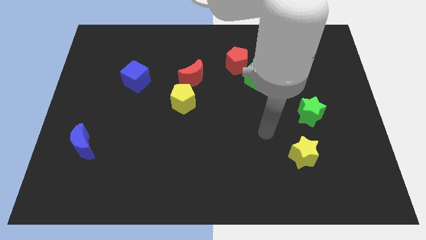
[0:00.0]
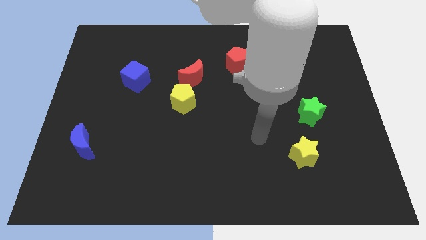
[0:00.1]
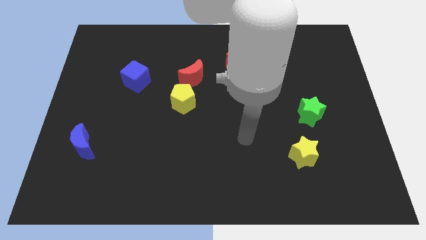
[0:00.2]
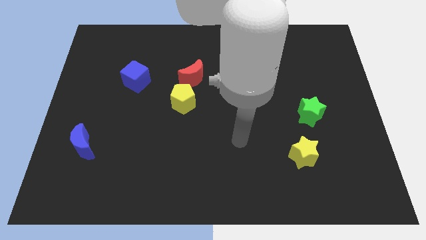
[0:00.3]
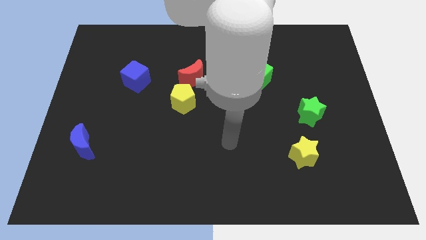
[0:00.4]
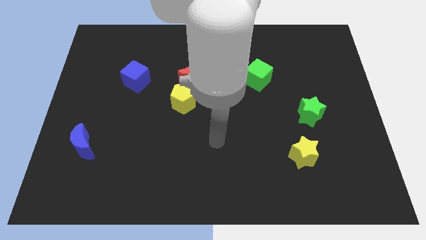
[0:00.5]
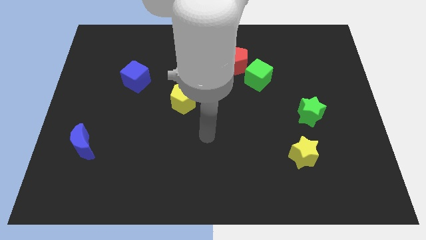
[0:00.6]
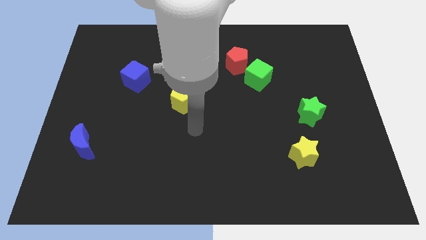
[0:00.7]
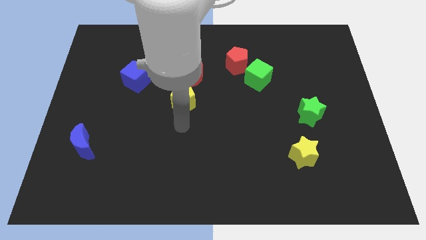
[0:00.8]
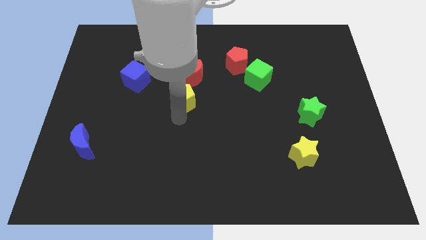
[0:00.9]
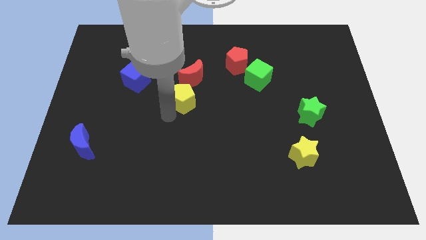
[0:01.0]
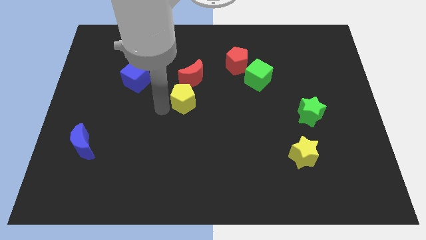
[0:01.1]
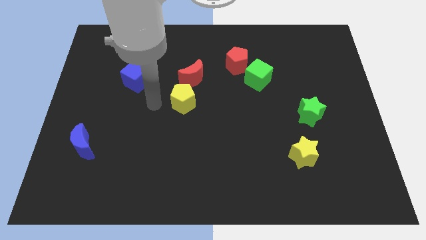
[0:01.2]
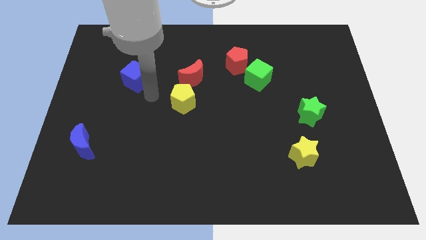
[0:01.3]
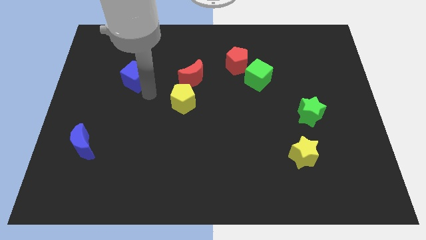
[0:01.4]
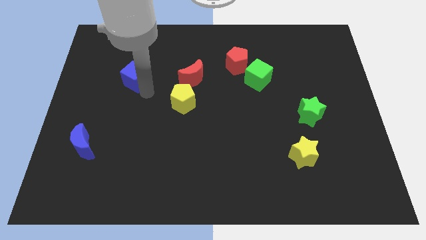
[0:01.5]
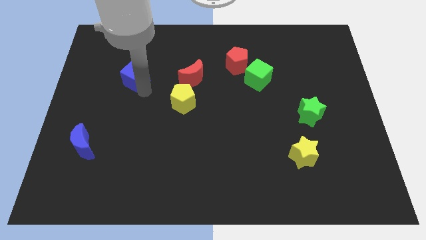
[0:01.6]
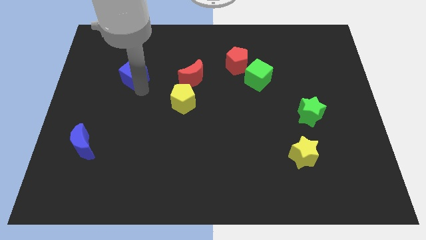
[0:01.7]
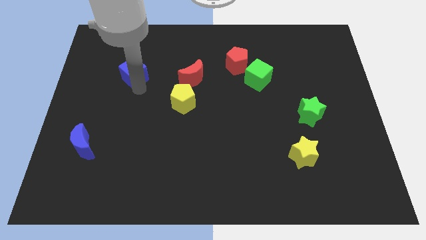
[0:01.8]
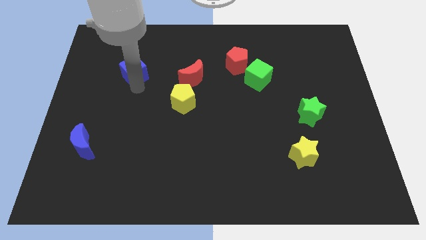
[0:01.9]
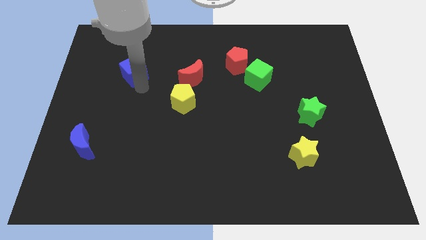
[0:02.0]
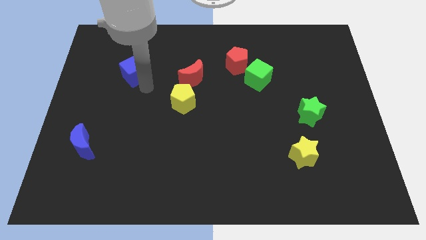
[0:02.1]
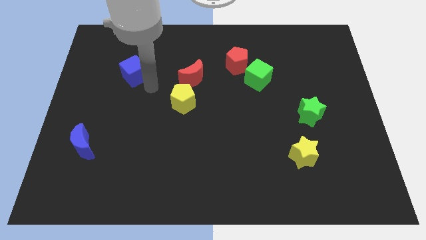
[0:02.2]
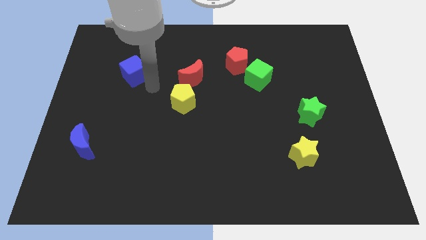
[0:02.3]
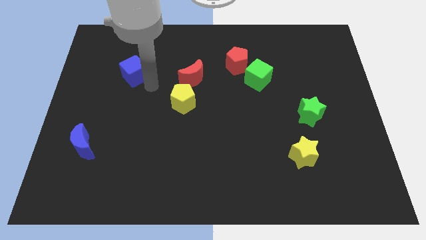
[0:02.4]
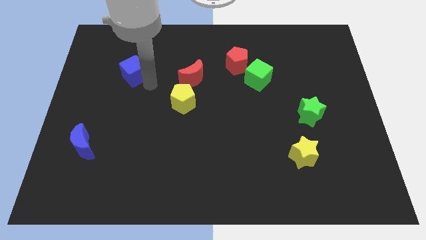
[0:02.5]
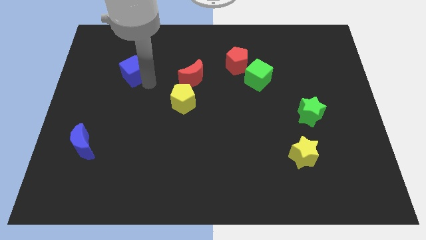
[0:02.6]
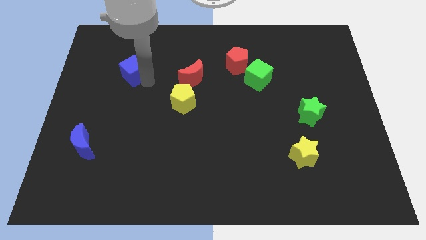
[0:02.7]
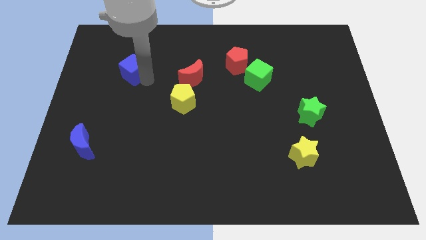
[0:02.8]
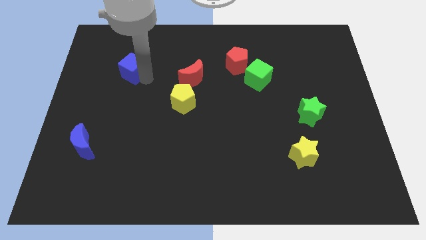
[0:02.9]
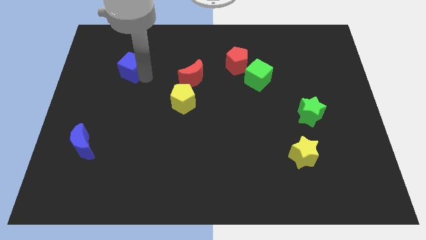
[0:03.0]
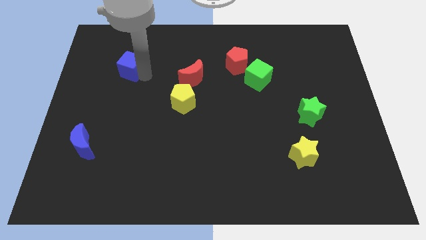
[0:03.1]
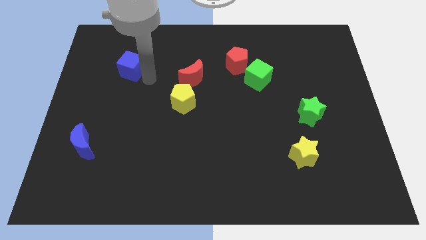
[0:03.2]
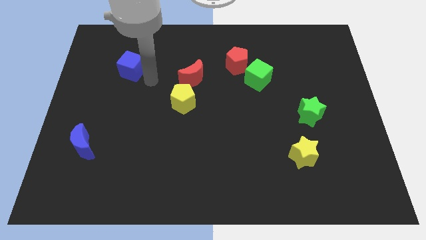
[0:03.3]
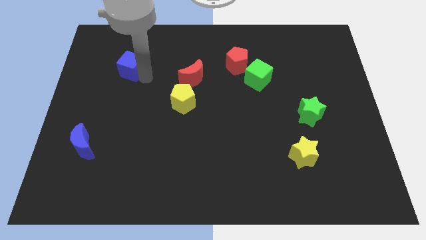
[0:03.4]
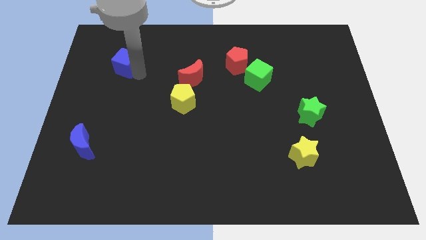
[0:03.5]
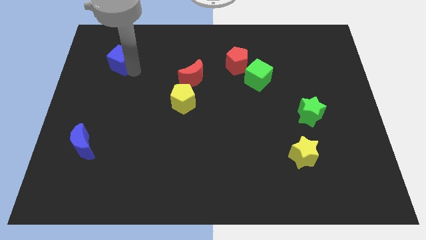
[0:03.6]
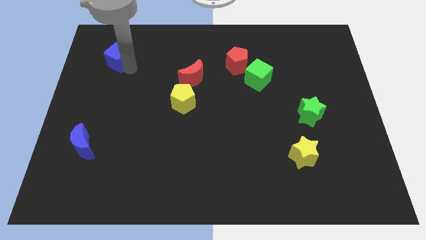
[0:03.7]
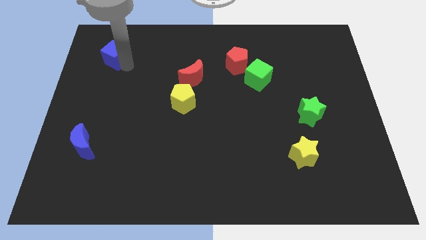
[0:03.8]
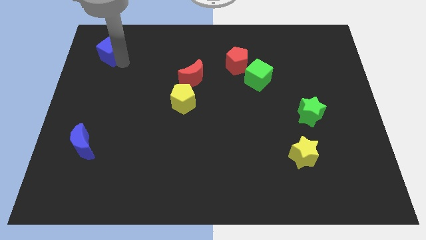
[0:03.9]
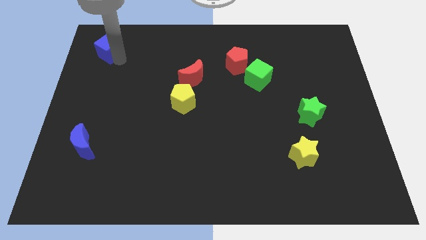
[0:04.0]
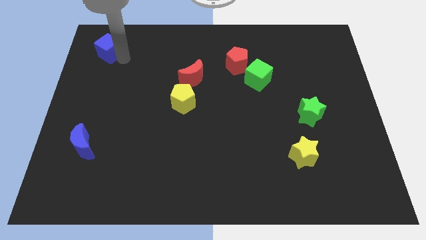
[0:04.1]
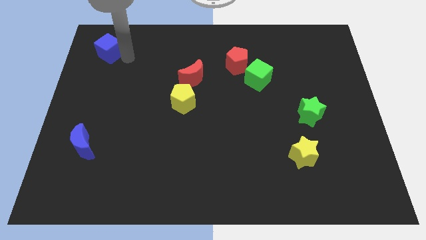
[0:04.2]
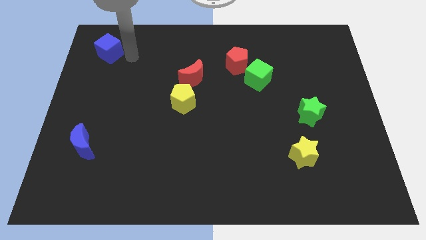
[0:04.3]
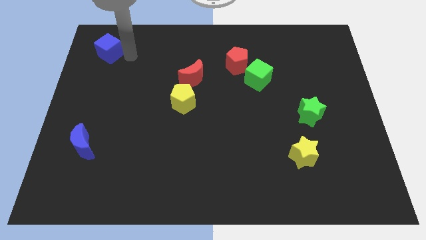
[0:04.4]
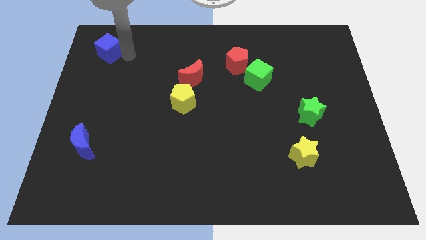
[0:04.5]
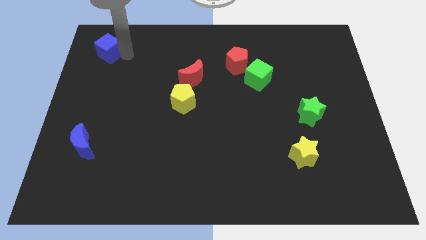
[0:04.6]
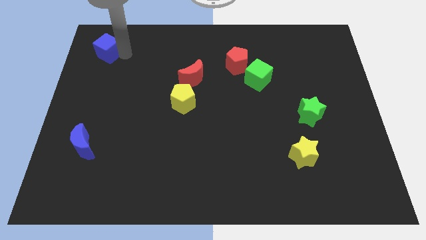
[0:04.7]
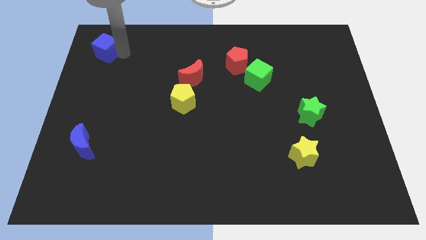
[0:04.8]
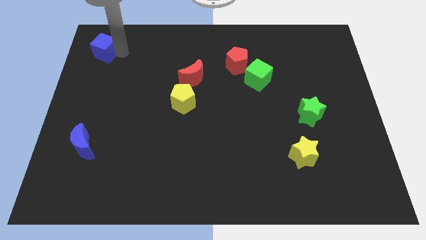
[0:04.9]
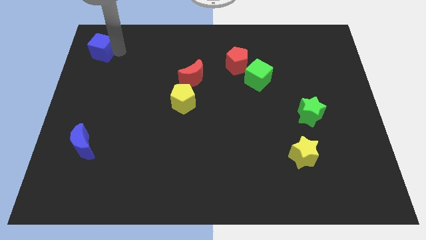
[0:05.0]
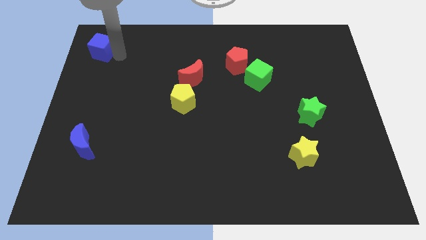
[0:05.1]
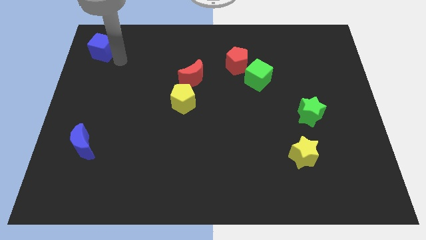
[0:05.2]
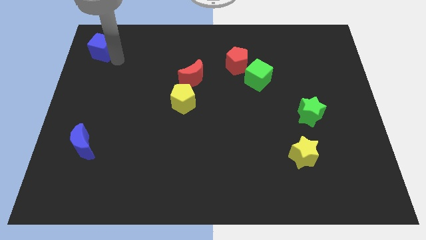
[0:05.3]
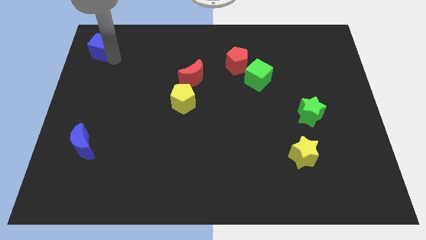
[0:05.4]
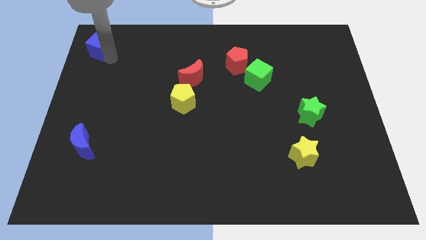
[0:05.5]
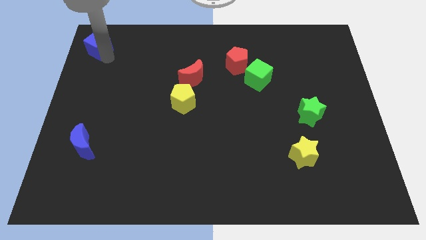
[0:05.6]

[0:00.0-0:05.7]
slide the blue cube to the top left corner
